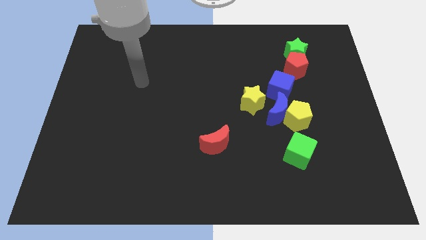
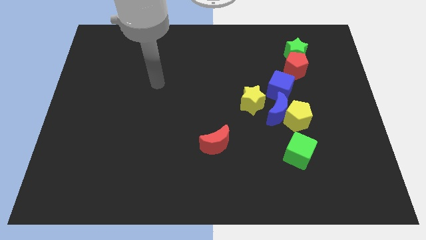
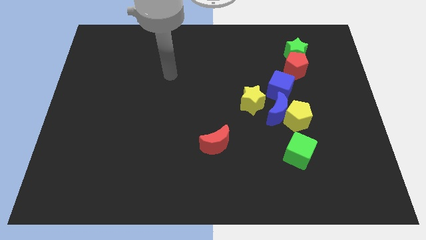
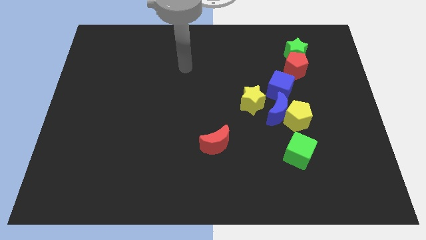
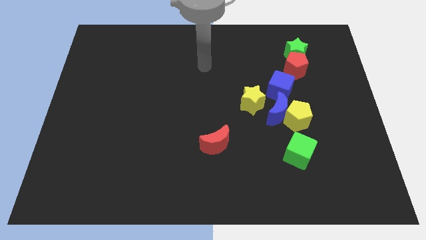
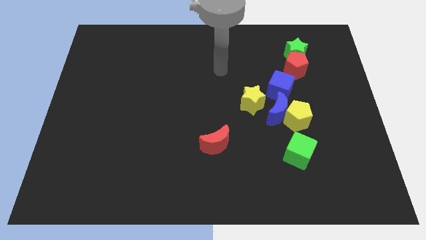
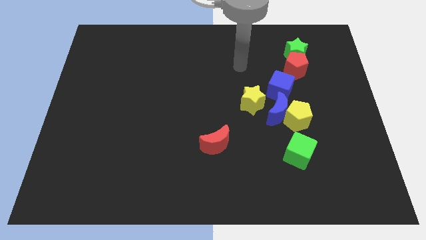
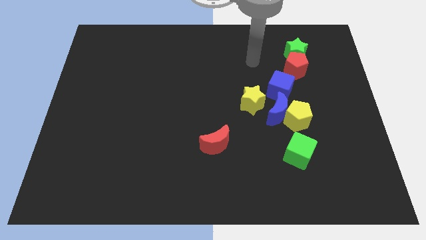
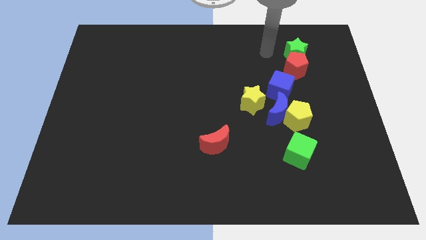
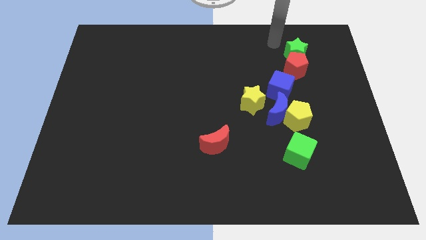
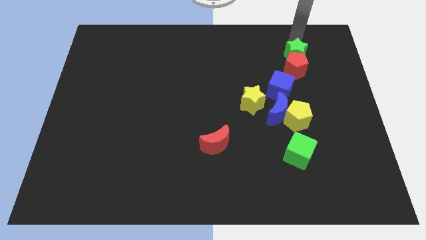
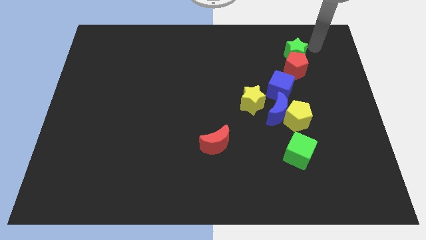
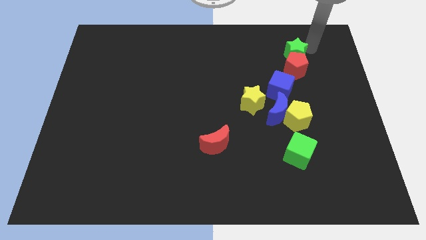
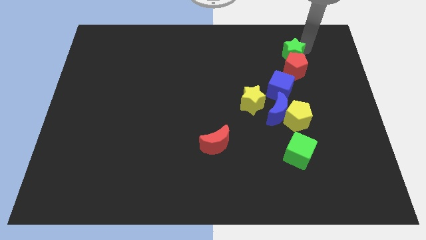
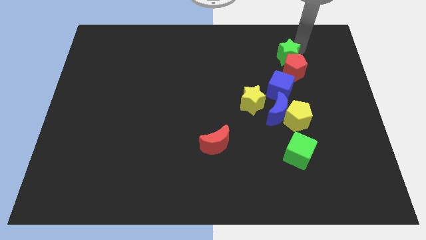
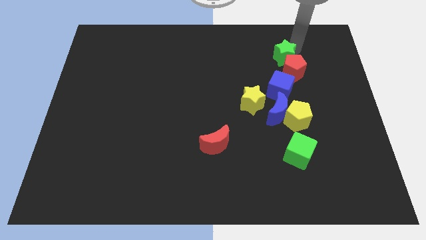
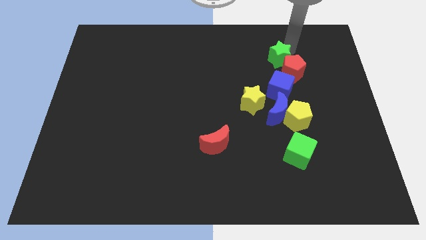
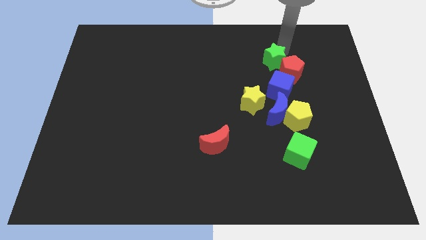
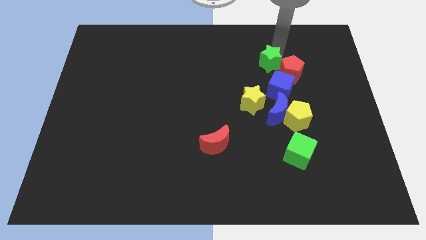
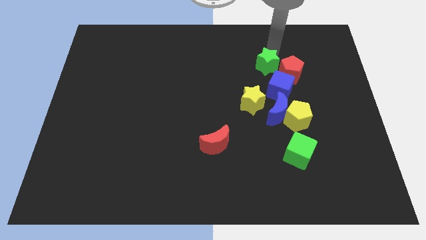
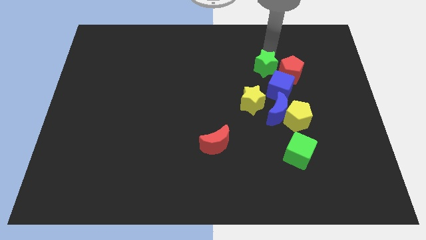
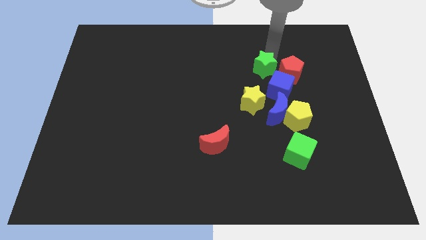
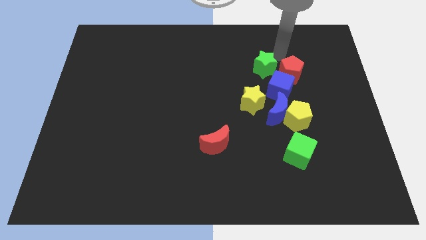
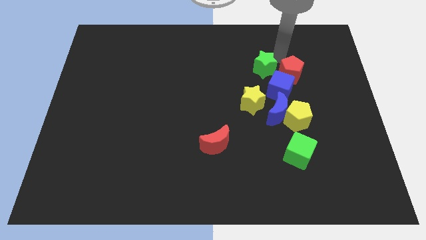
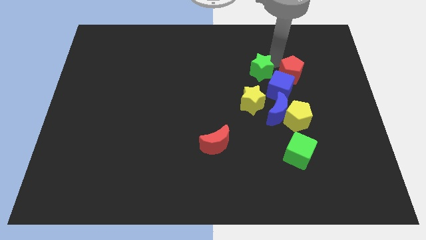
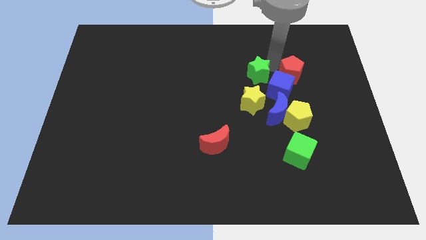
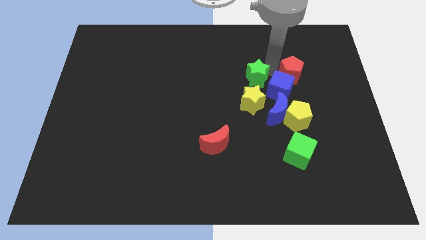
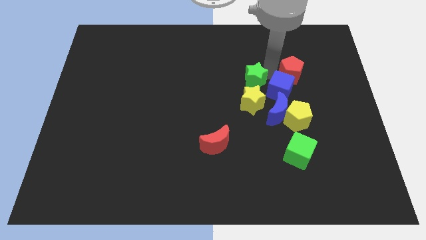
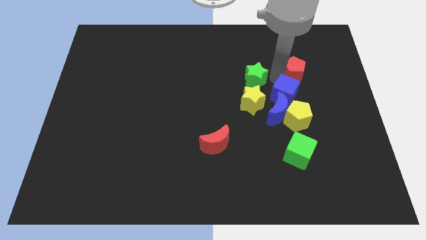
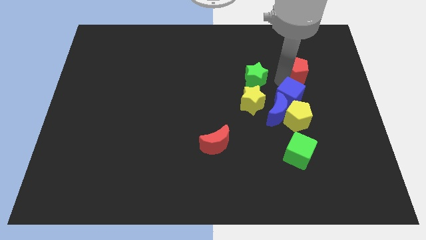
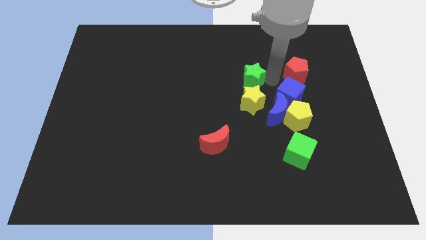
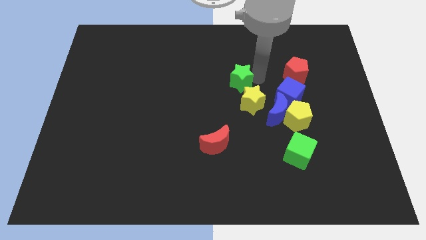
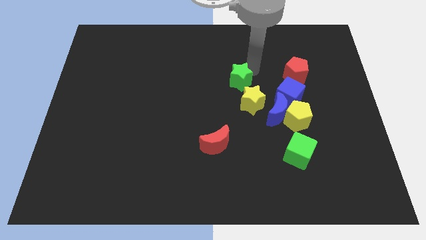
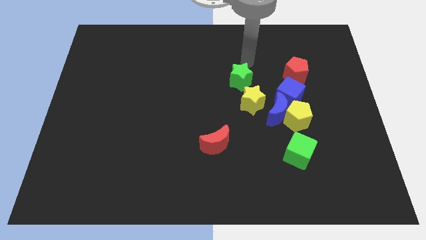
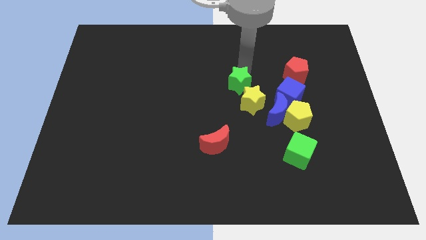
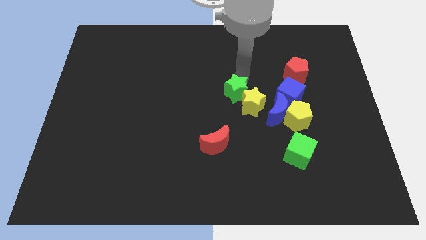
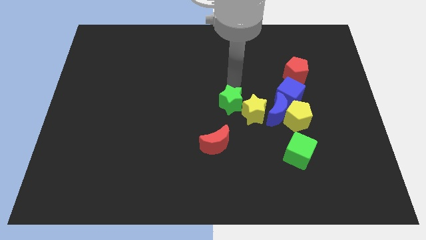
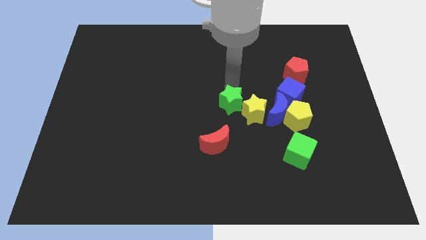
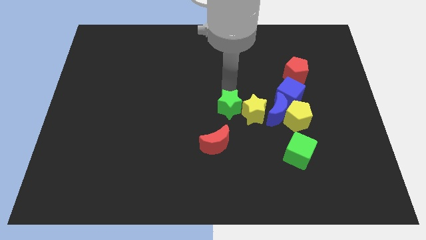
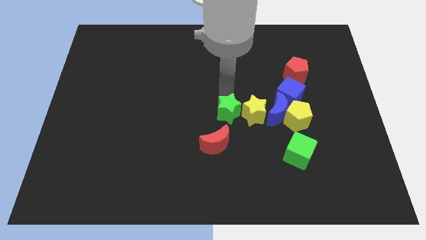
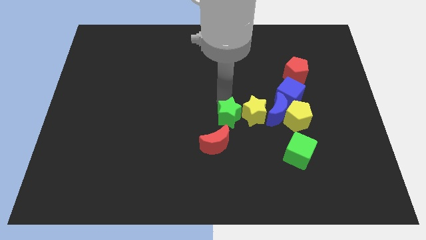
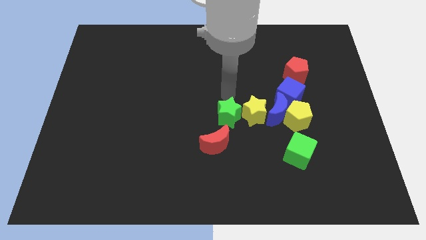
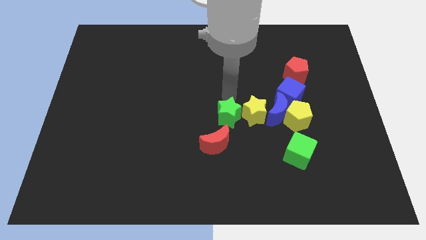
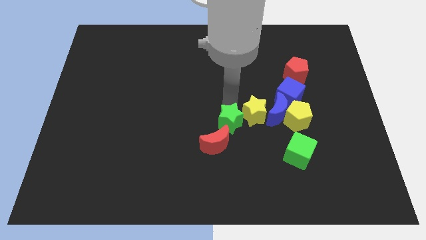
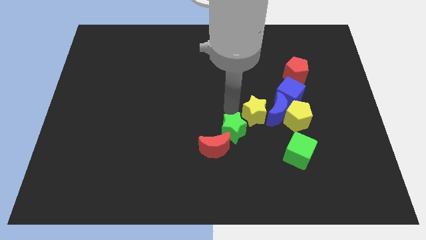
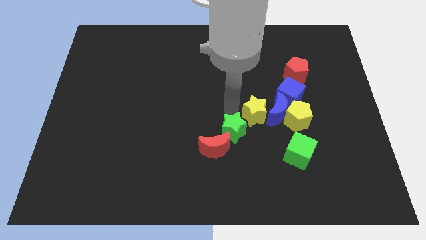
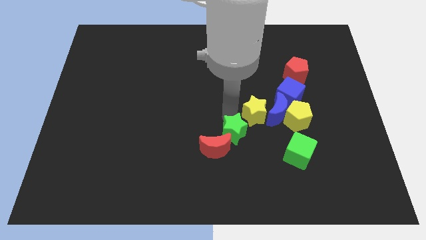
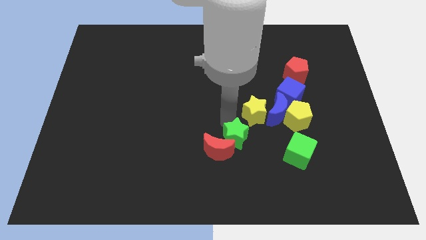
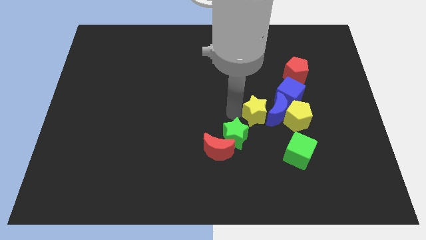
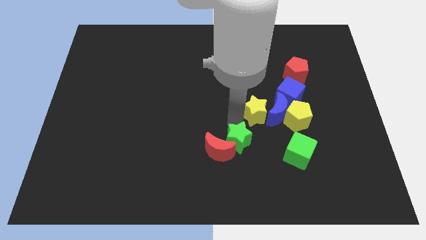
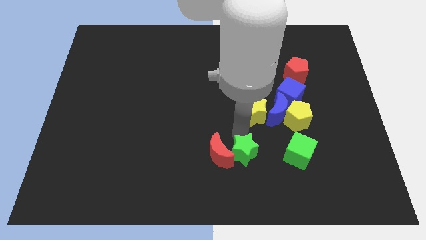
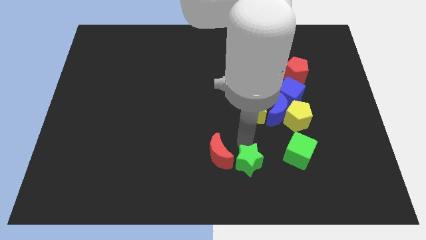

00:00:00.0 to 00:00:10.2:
slide the green star to the bottom

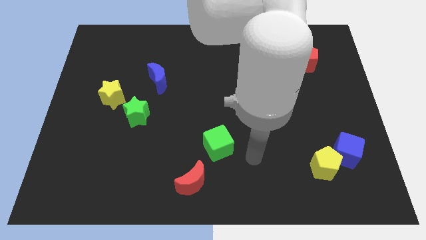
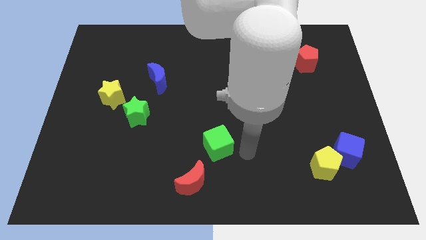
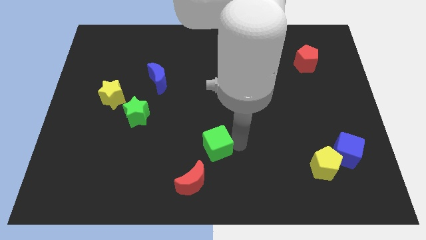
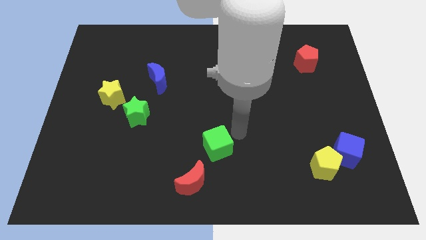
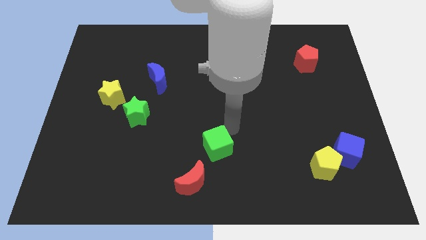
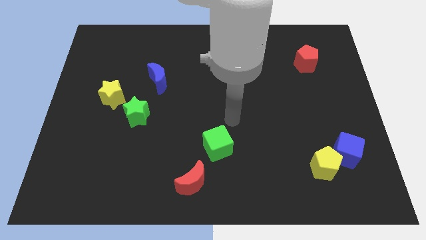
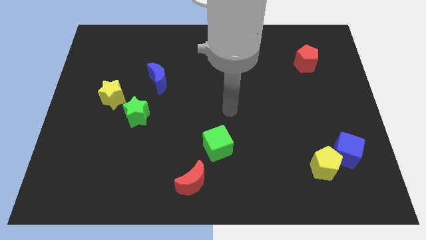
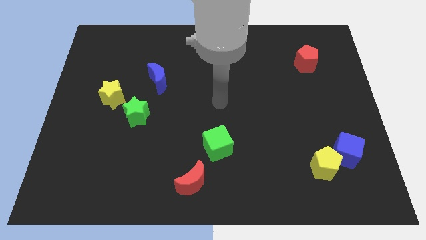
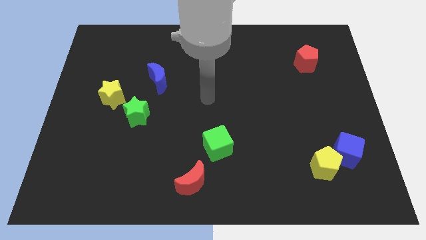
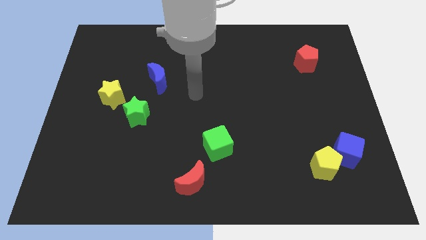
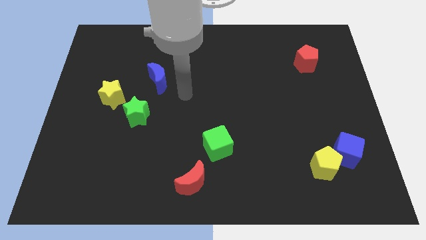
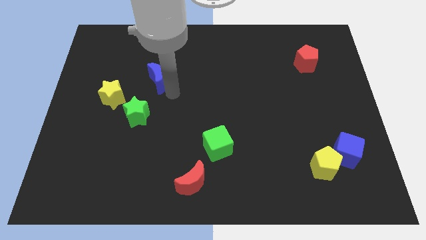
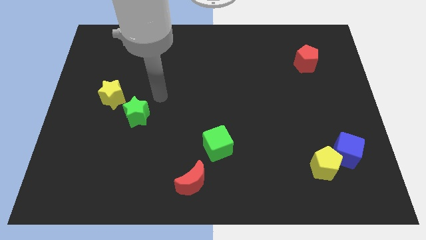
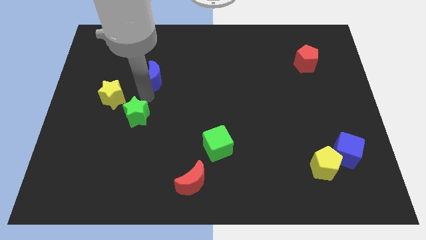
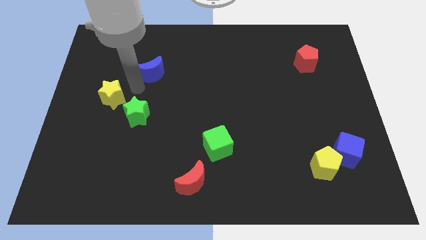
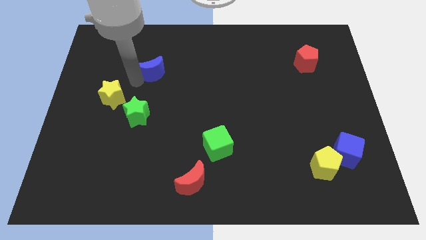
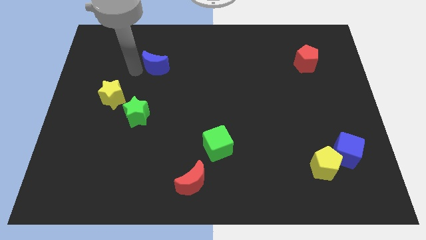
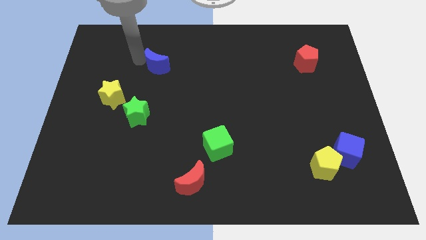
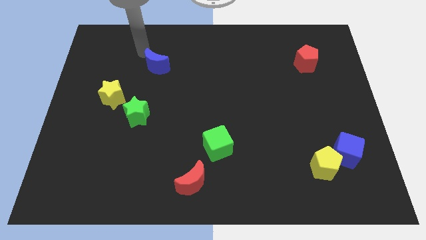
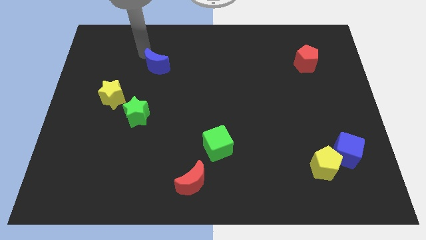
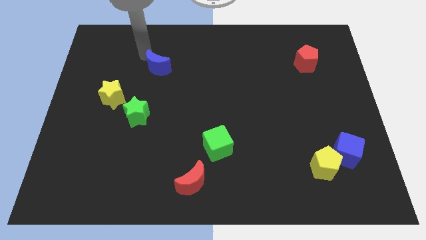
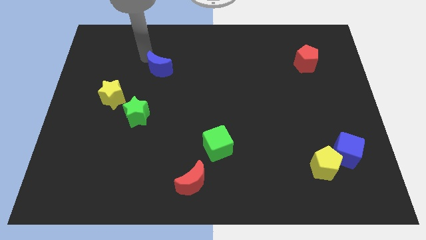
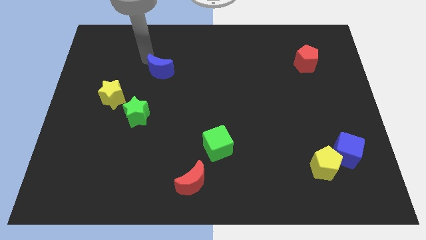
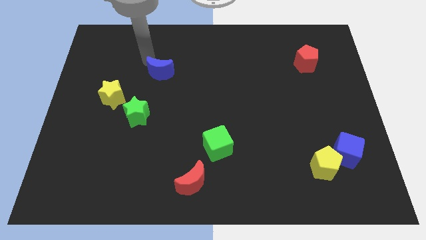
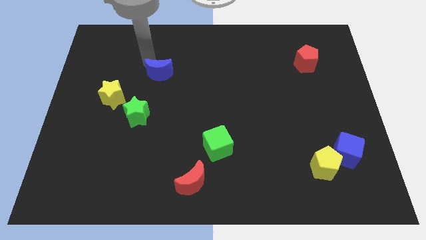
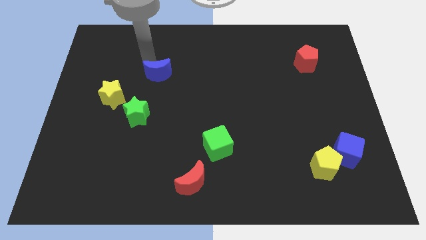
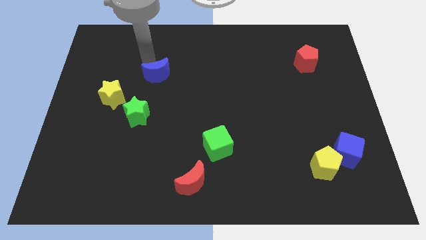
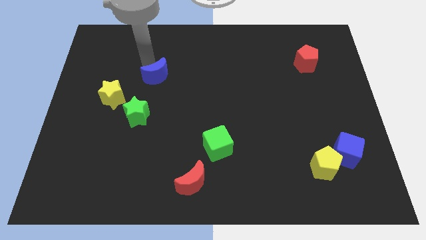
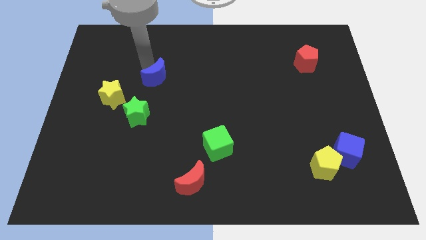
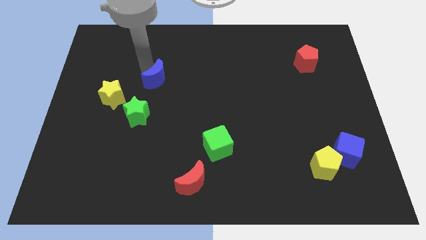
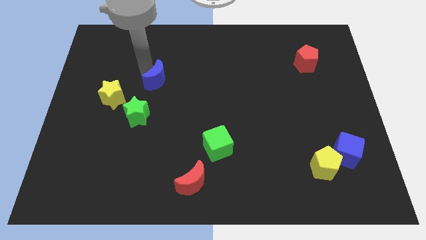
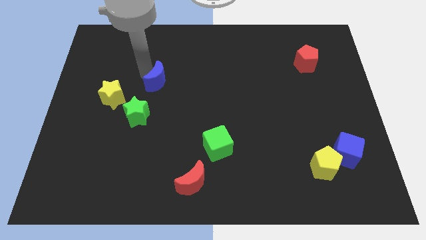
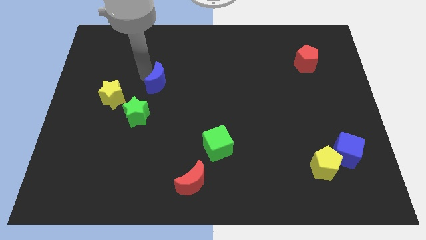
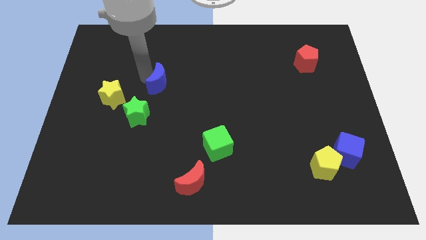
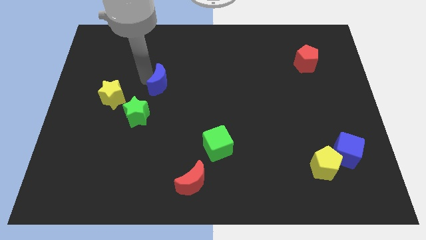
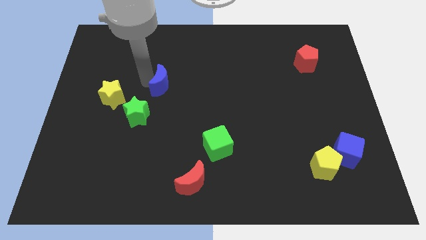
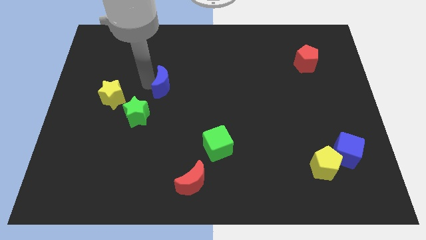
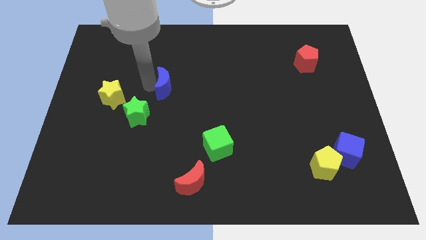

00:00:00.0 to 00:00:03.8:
slide the blue moon to the middle
